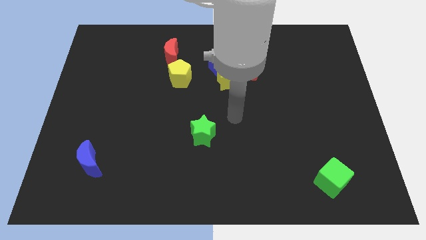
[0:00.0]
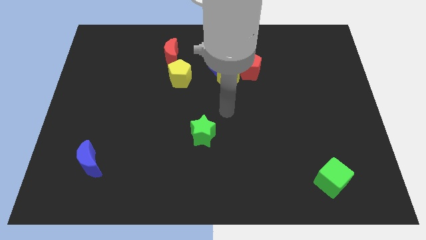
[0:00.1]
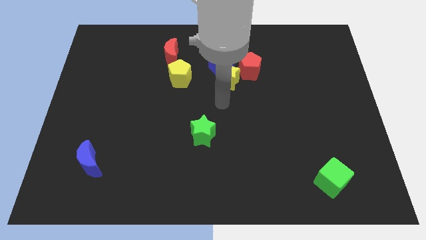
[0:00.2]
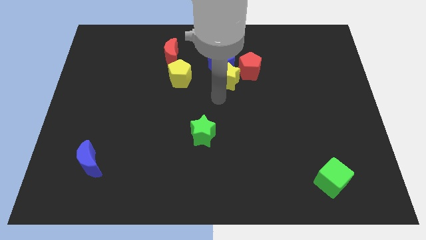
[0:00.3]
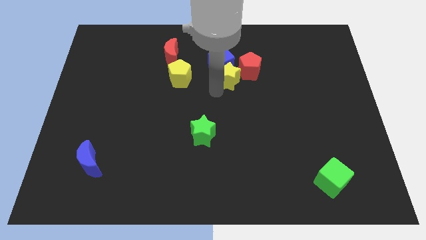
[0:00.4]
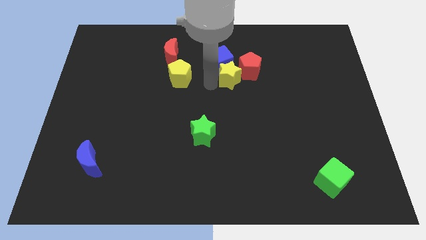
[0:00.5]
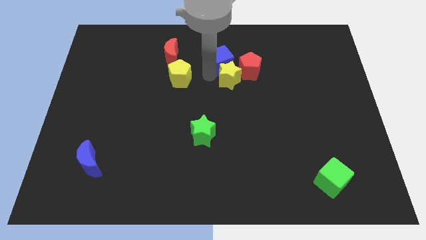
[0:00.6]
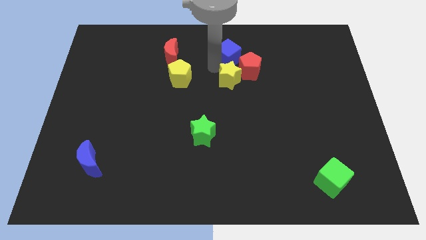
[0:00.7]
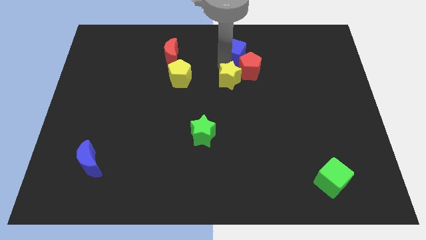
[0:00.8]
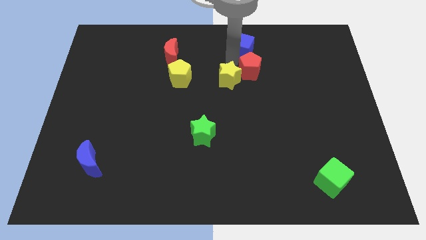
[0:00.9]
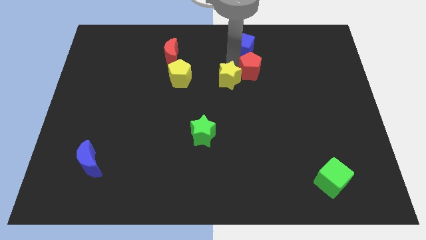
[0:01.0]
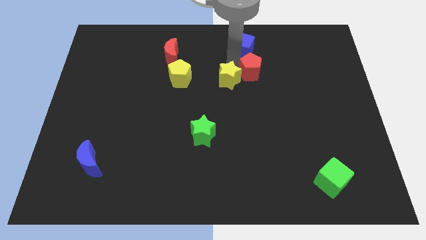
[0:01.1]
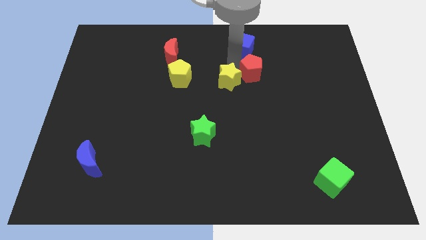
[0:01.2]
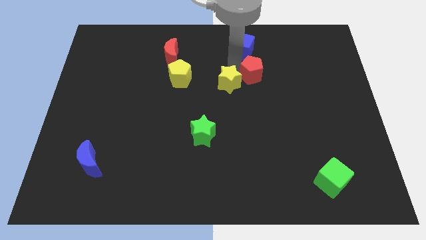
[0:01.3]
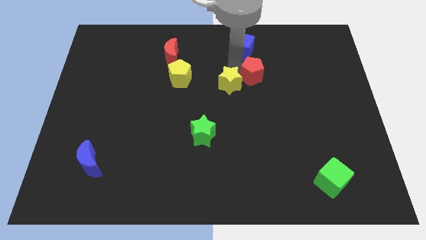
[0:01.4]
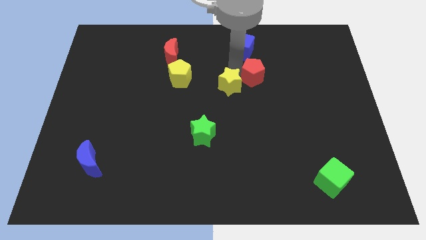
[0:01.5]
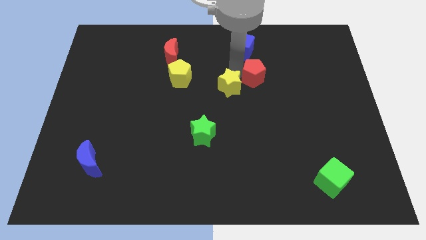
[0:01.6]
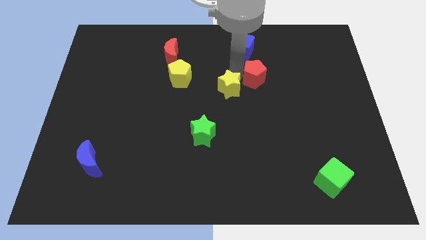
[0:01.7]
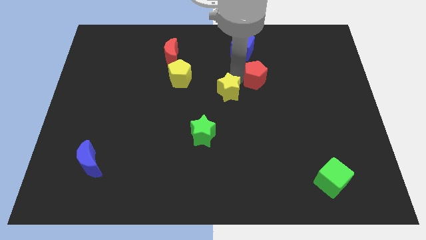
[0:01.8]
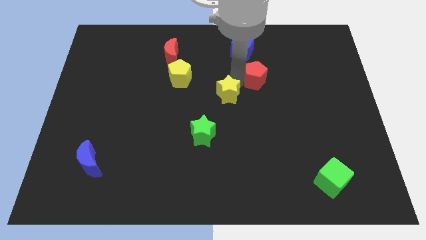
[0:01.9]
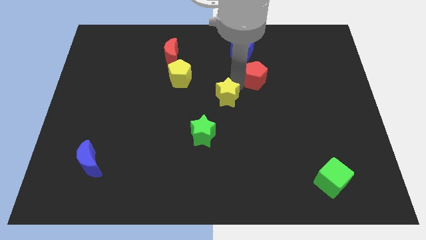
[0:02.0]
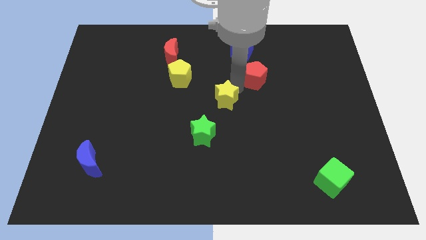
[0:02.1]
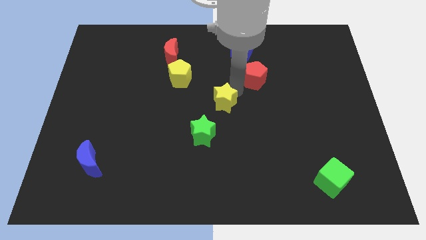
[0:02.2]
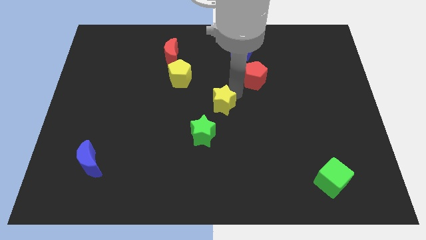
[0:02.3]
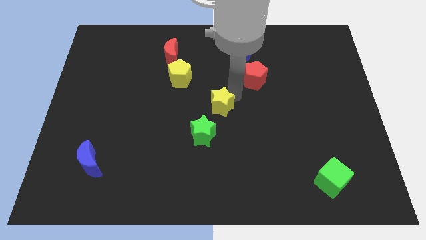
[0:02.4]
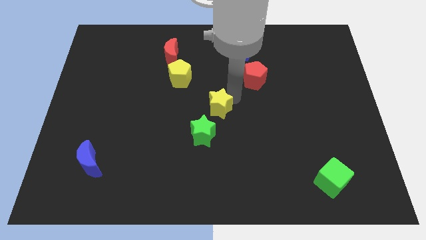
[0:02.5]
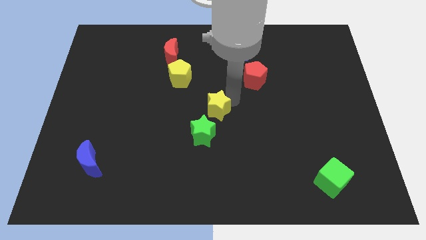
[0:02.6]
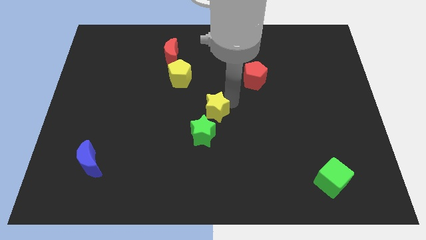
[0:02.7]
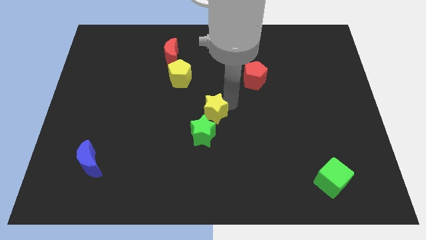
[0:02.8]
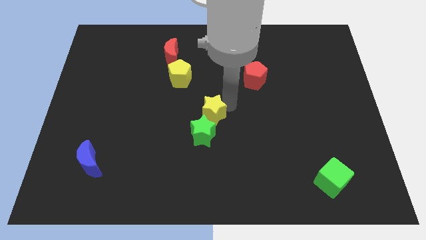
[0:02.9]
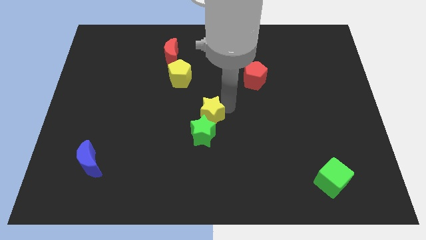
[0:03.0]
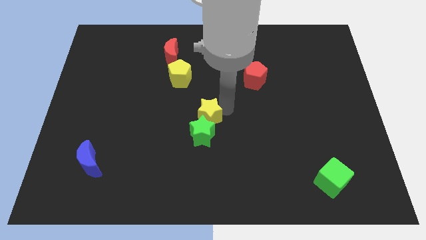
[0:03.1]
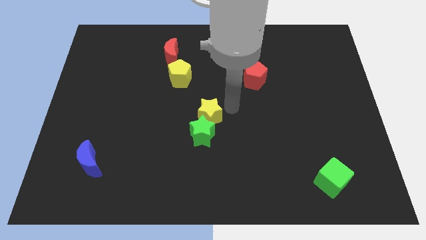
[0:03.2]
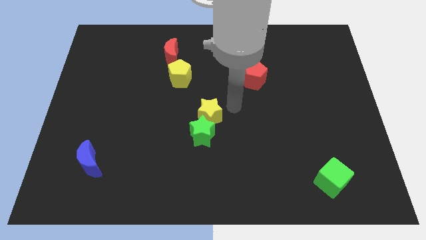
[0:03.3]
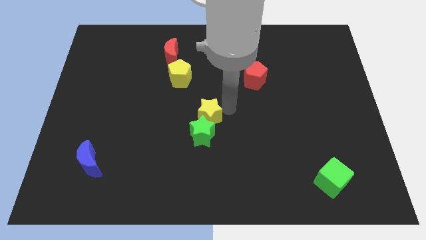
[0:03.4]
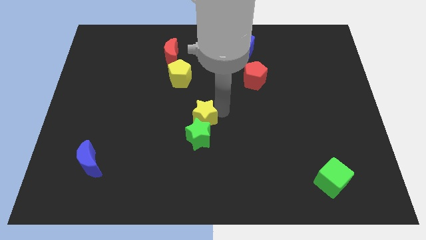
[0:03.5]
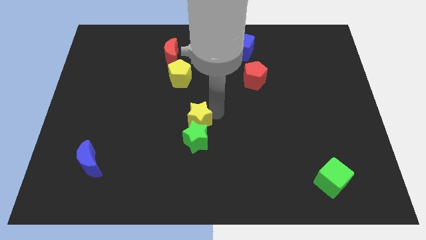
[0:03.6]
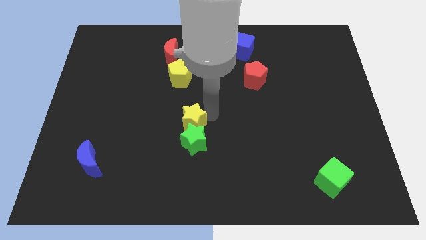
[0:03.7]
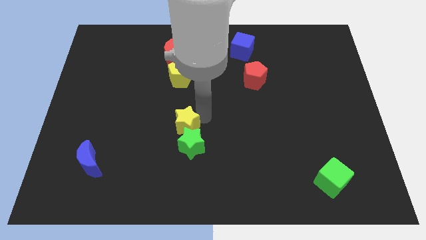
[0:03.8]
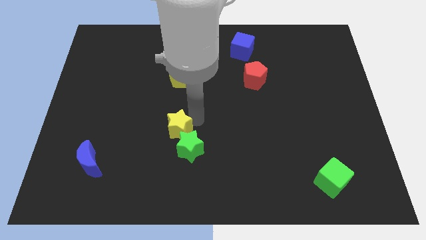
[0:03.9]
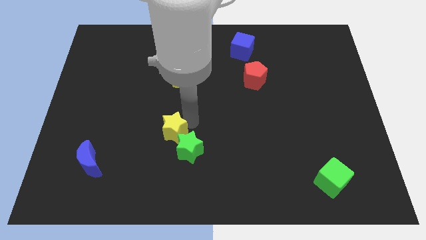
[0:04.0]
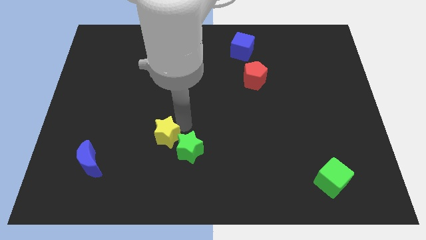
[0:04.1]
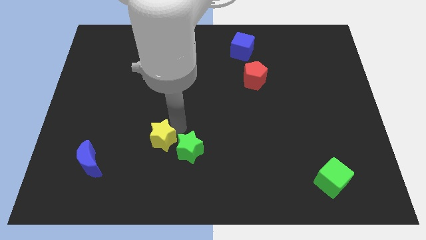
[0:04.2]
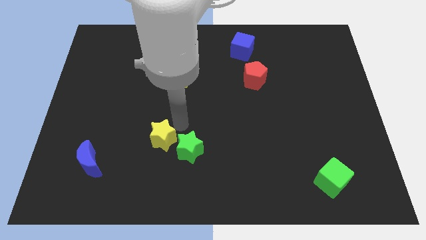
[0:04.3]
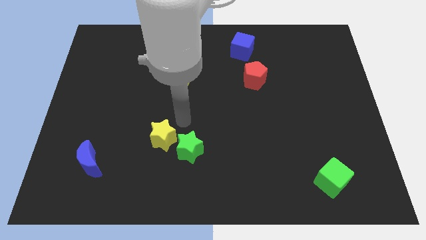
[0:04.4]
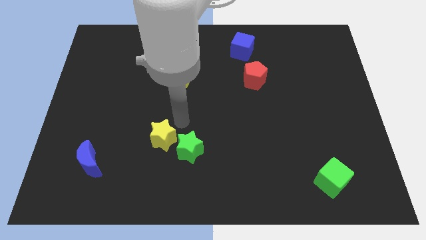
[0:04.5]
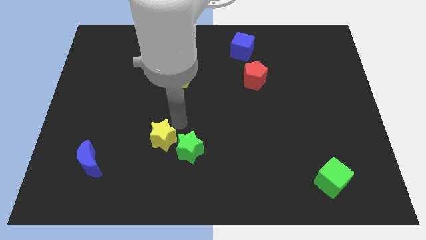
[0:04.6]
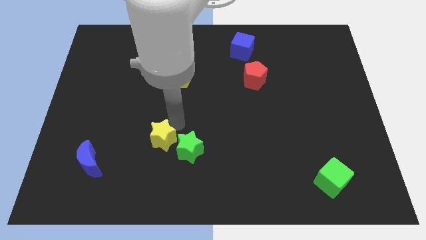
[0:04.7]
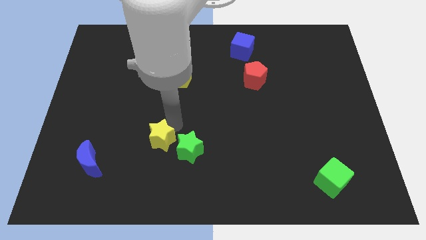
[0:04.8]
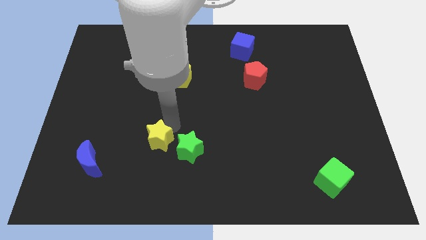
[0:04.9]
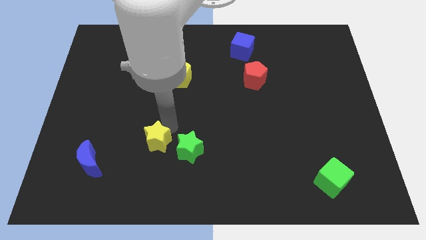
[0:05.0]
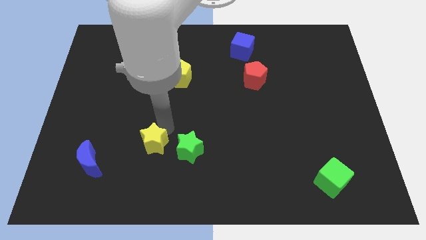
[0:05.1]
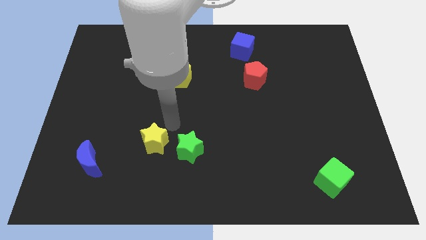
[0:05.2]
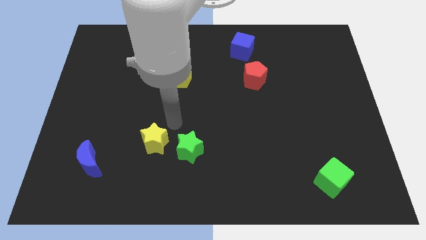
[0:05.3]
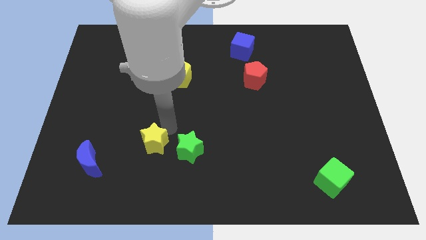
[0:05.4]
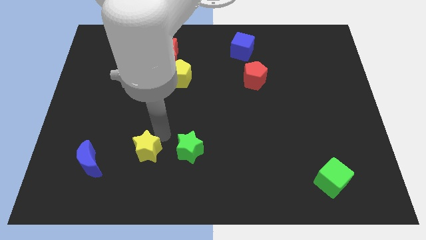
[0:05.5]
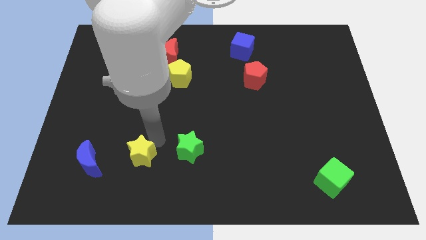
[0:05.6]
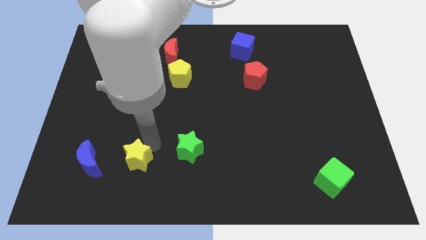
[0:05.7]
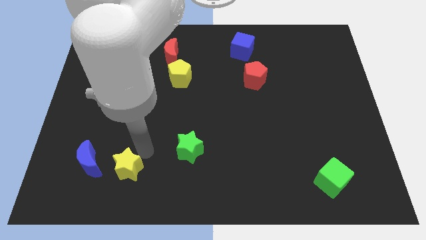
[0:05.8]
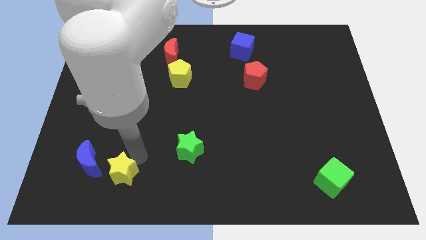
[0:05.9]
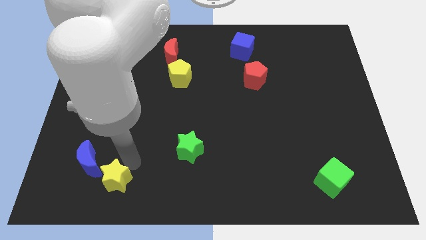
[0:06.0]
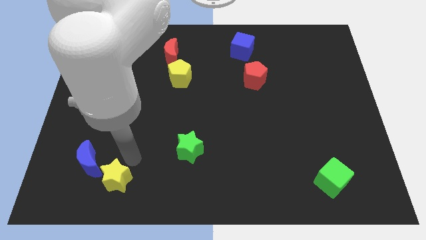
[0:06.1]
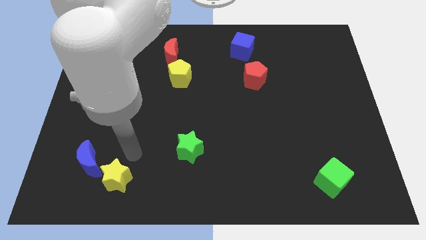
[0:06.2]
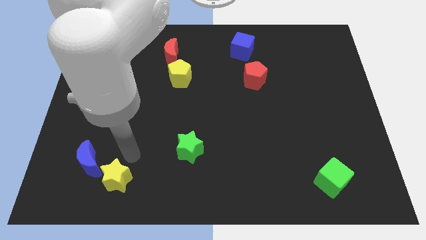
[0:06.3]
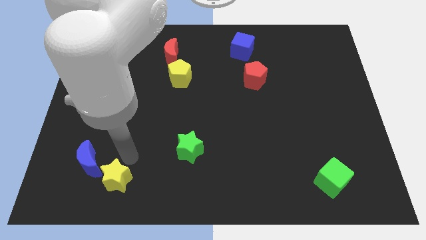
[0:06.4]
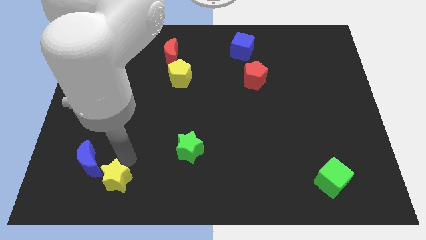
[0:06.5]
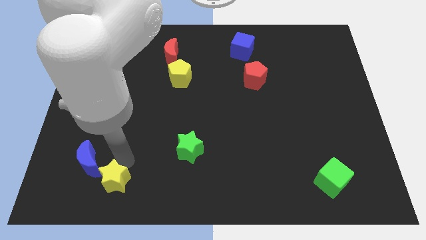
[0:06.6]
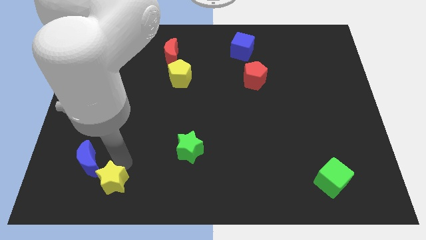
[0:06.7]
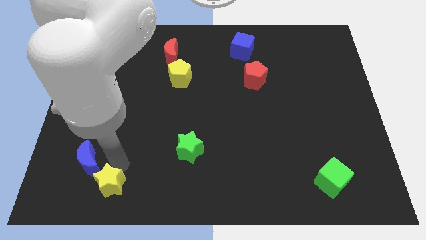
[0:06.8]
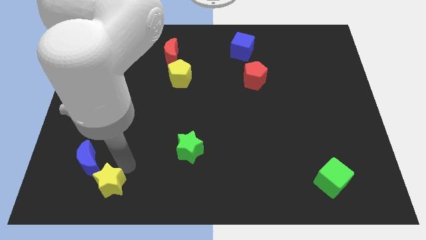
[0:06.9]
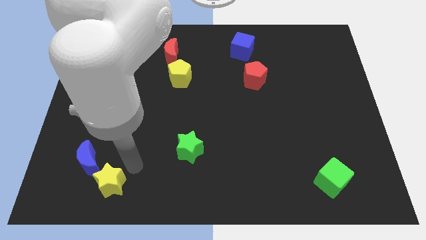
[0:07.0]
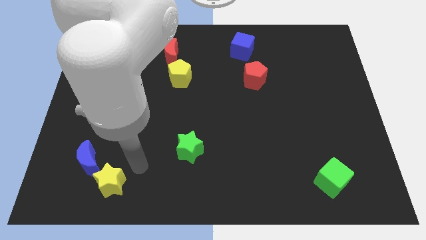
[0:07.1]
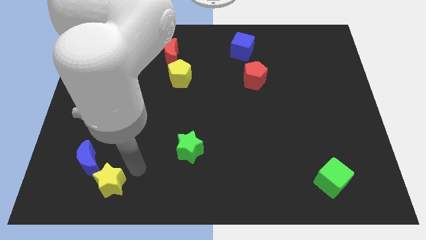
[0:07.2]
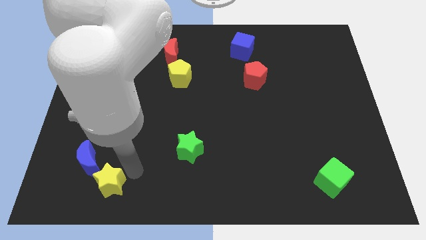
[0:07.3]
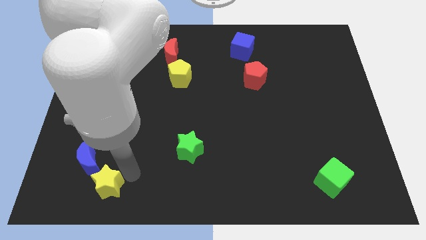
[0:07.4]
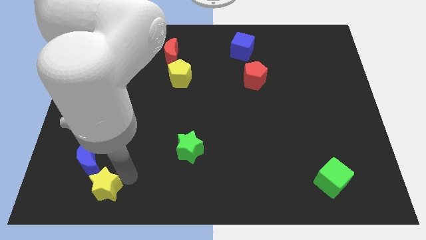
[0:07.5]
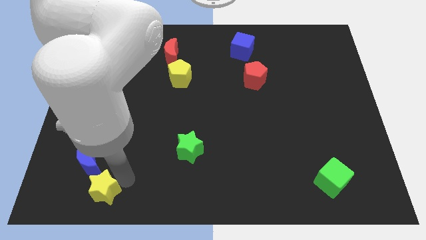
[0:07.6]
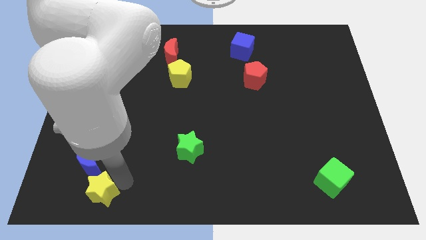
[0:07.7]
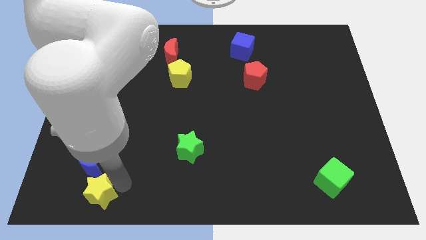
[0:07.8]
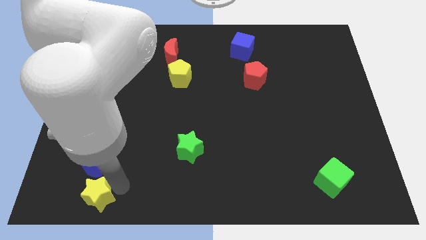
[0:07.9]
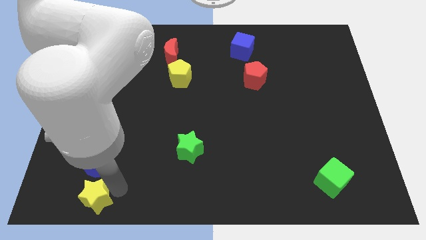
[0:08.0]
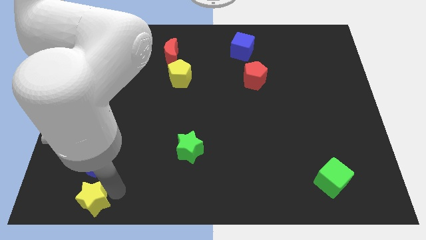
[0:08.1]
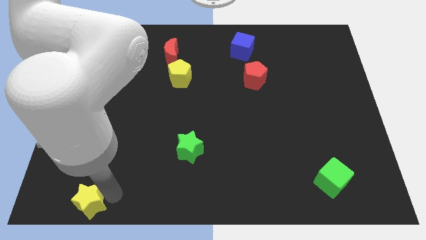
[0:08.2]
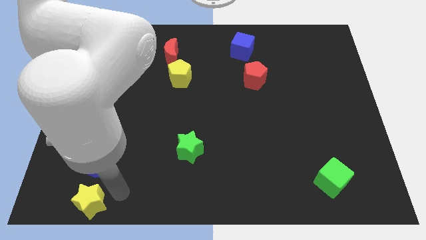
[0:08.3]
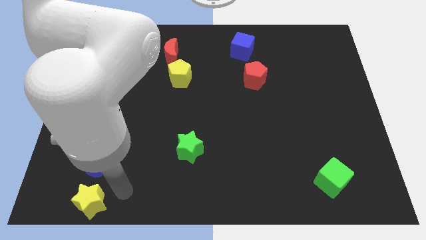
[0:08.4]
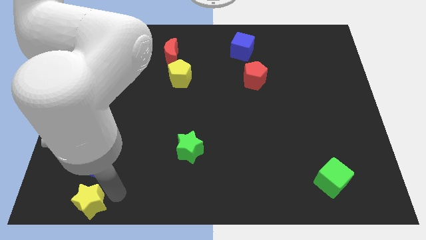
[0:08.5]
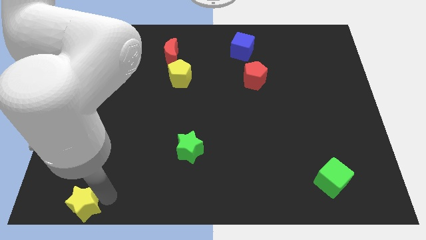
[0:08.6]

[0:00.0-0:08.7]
push the yellow star to the bottom left
